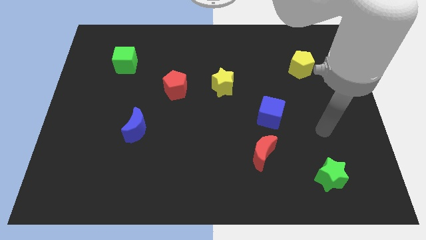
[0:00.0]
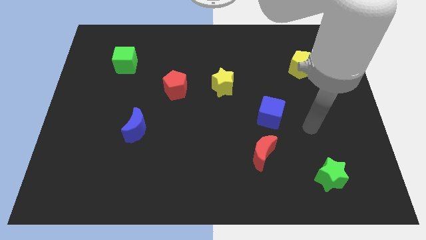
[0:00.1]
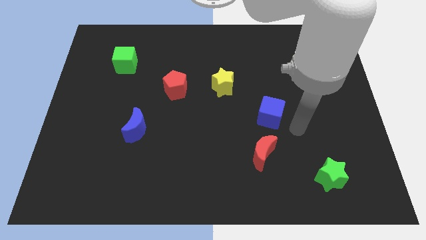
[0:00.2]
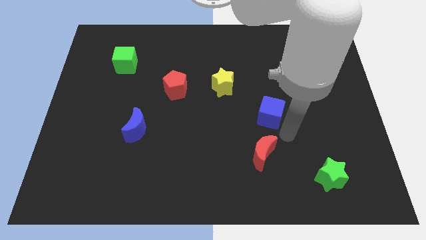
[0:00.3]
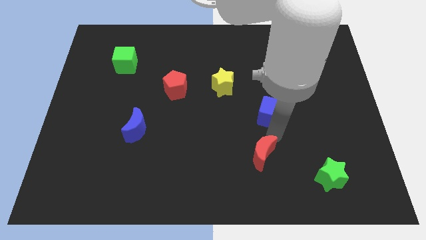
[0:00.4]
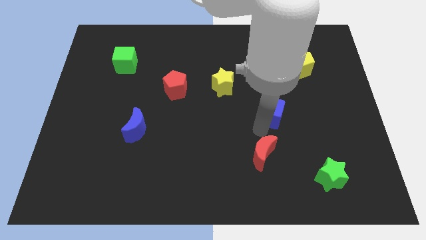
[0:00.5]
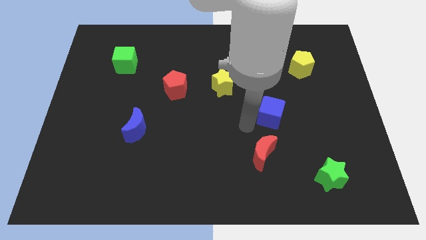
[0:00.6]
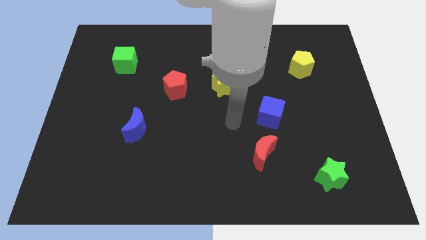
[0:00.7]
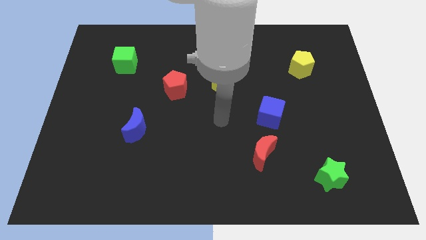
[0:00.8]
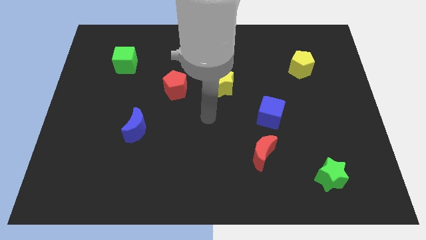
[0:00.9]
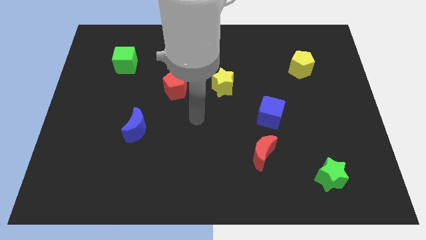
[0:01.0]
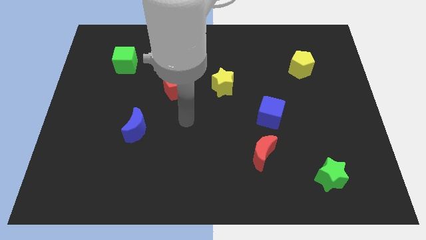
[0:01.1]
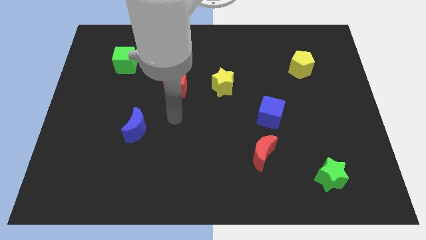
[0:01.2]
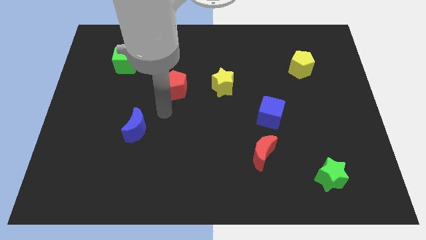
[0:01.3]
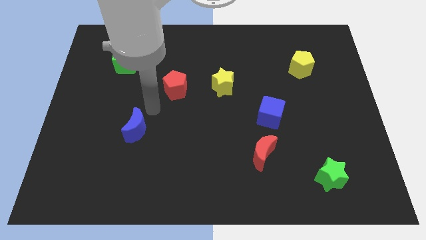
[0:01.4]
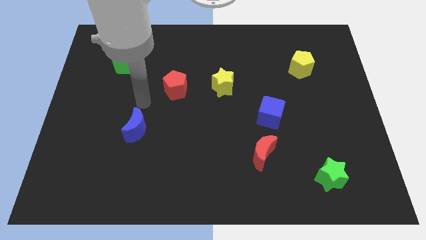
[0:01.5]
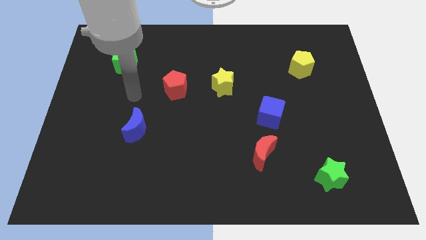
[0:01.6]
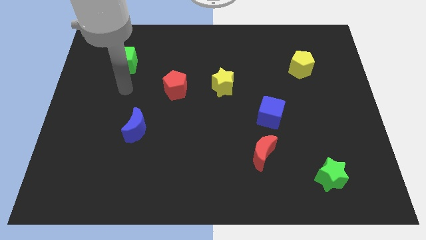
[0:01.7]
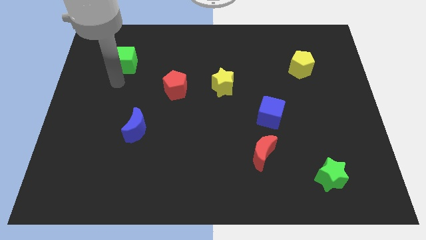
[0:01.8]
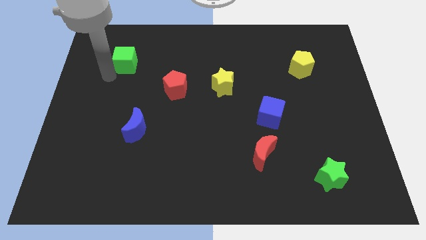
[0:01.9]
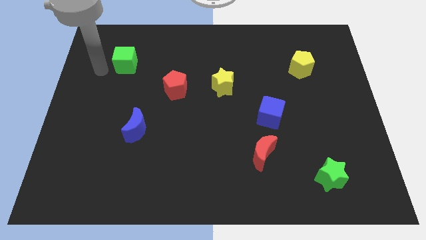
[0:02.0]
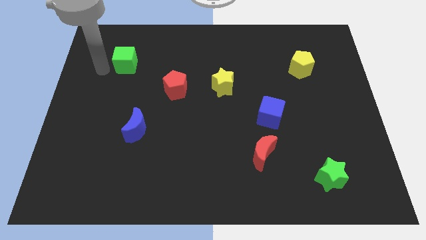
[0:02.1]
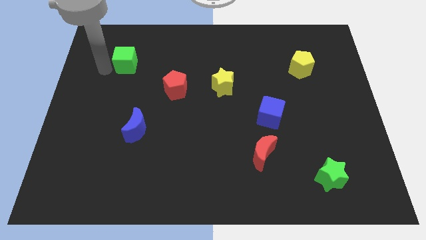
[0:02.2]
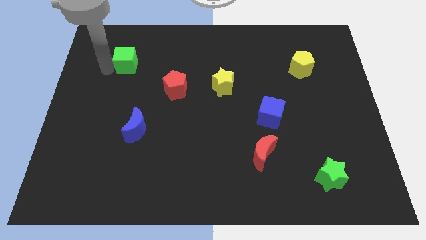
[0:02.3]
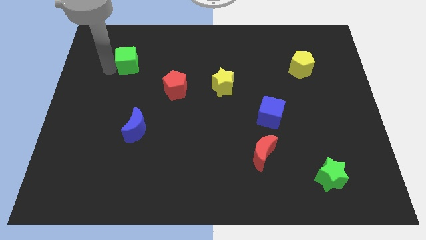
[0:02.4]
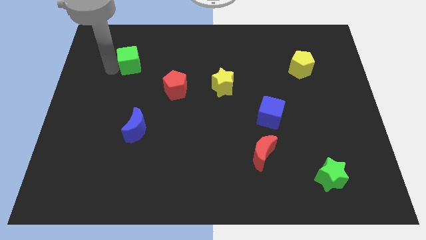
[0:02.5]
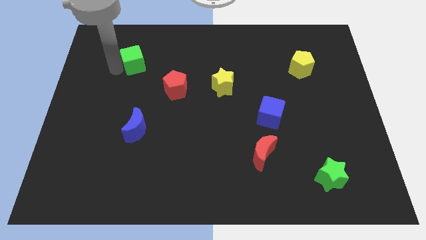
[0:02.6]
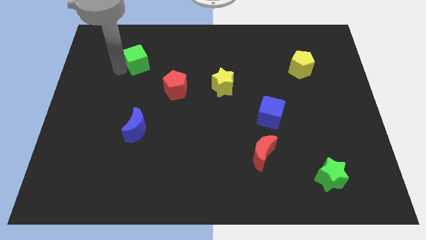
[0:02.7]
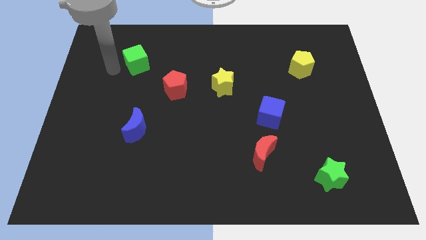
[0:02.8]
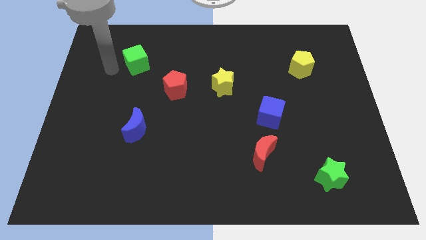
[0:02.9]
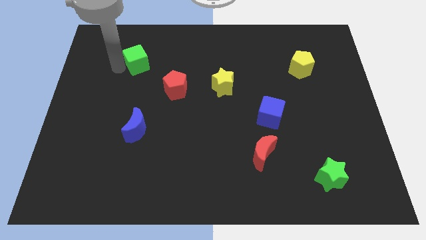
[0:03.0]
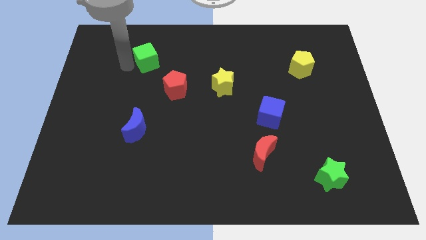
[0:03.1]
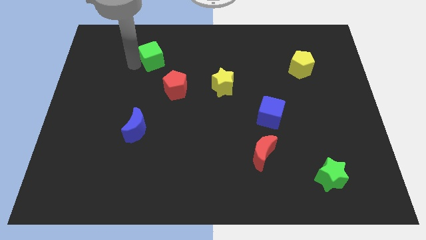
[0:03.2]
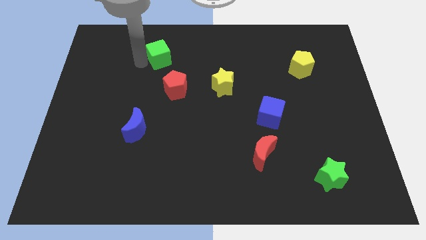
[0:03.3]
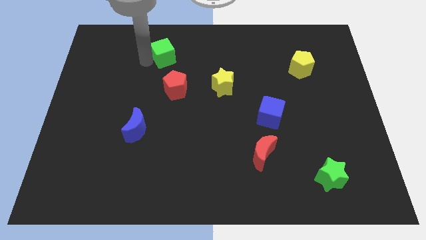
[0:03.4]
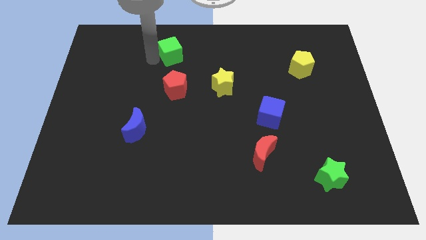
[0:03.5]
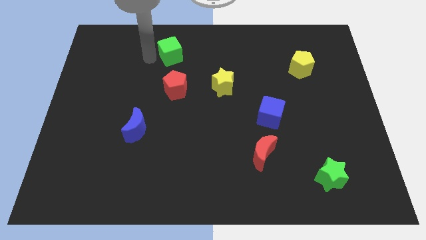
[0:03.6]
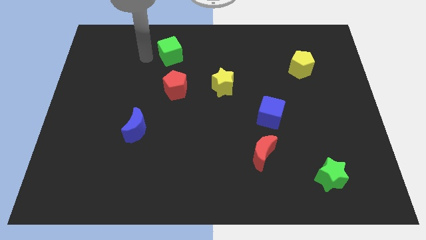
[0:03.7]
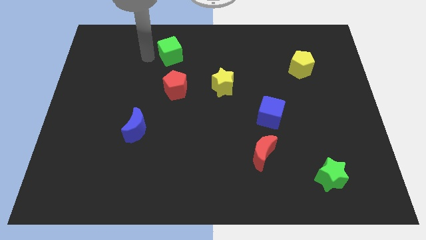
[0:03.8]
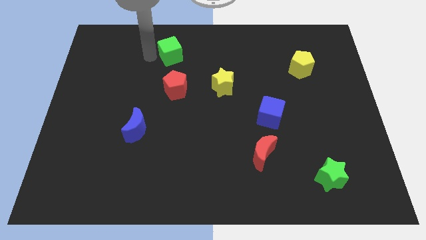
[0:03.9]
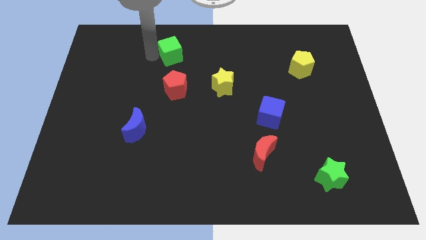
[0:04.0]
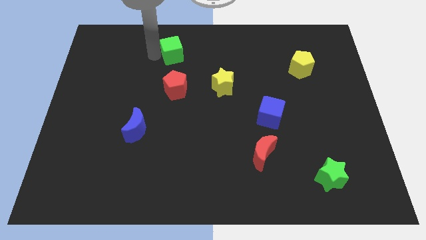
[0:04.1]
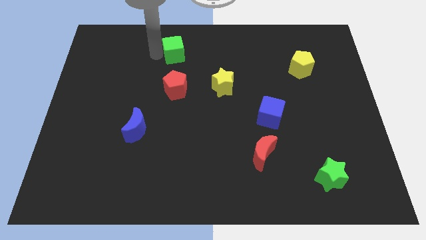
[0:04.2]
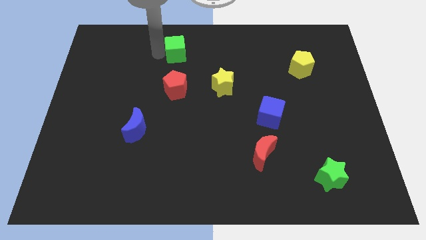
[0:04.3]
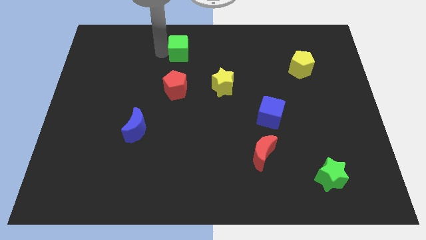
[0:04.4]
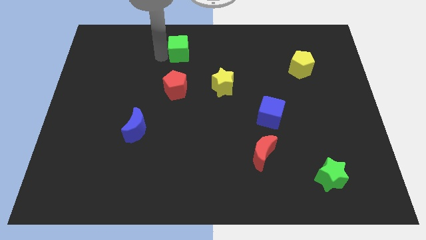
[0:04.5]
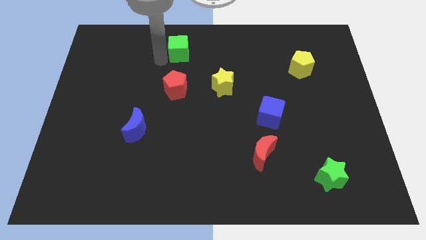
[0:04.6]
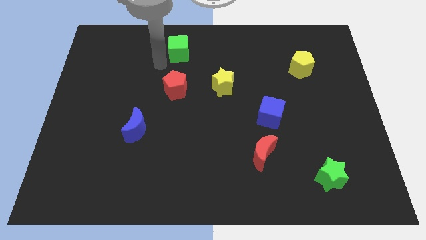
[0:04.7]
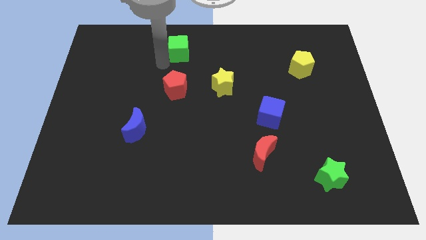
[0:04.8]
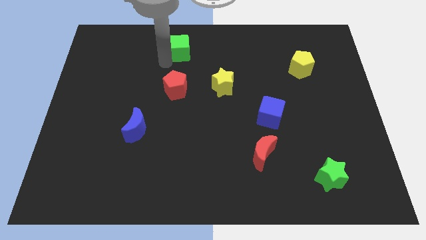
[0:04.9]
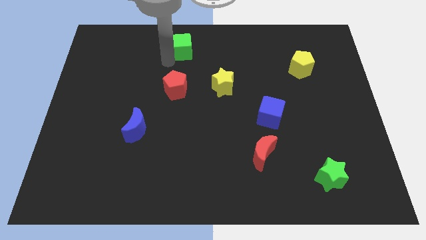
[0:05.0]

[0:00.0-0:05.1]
push the green cube to the top

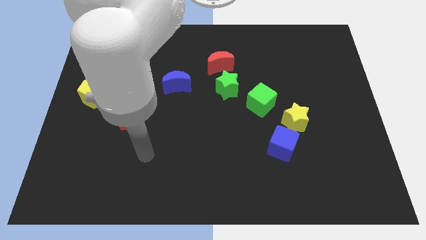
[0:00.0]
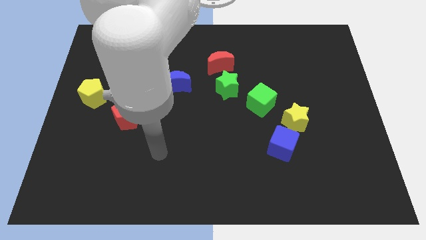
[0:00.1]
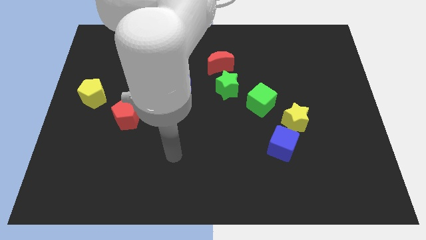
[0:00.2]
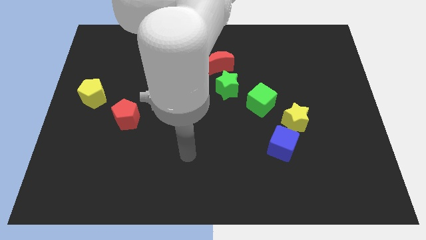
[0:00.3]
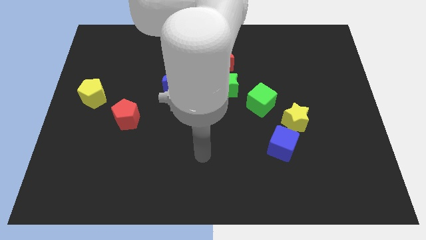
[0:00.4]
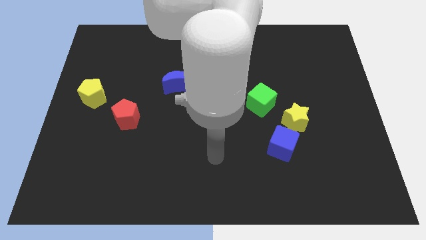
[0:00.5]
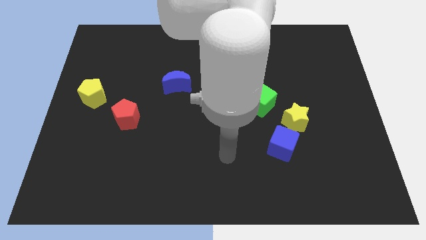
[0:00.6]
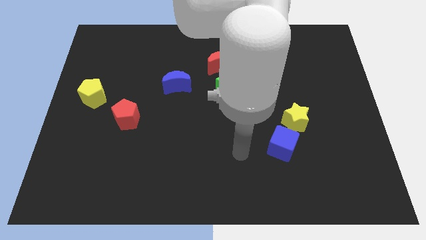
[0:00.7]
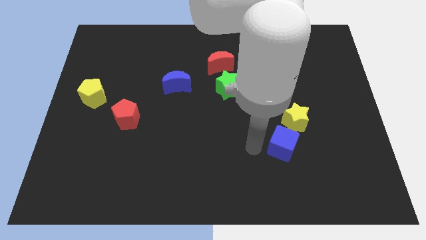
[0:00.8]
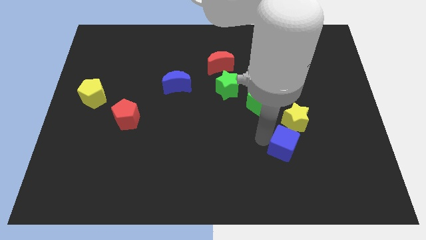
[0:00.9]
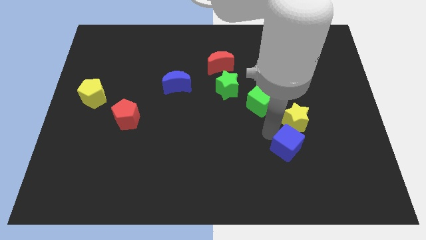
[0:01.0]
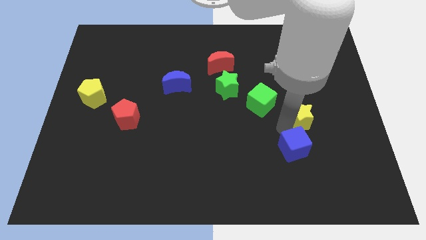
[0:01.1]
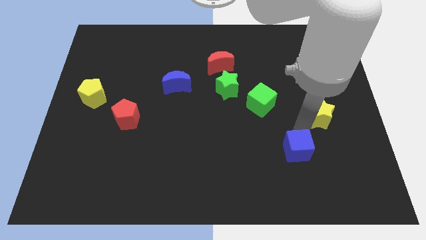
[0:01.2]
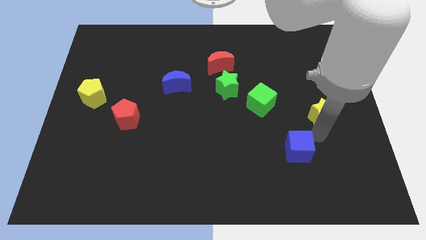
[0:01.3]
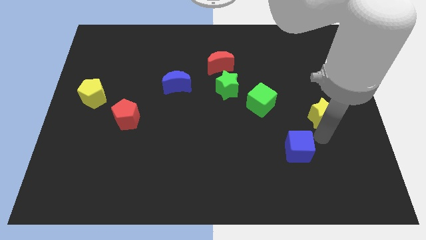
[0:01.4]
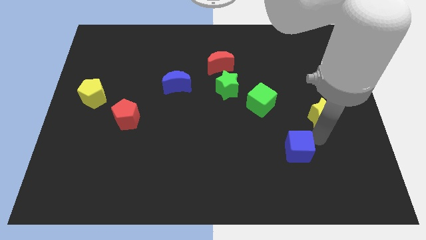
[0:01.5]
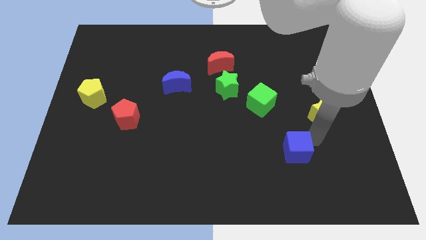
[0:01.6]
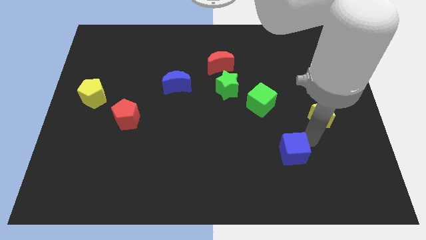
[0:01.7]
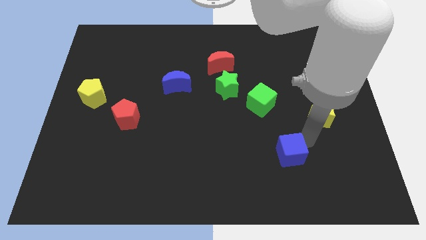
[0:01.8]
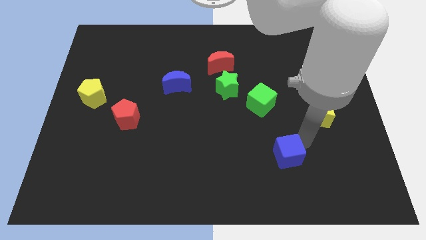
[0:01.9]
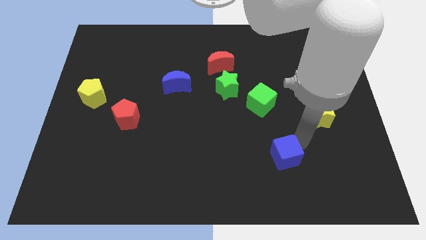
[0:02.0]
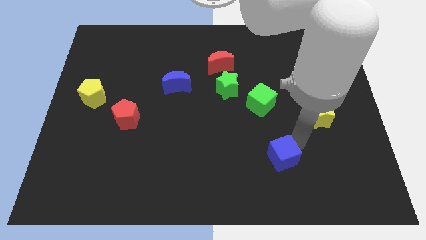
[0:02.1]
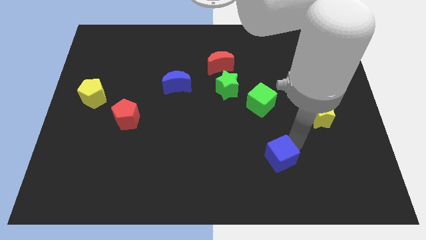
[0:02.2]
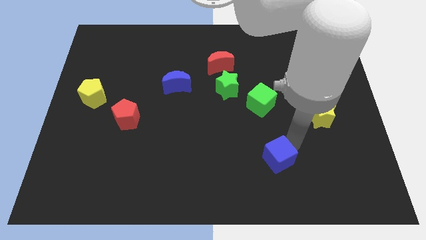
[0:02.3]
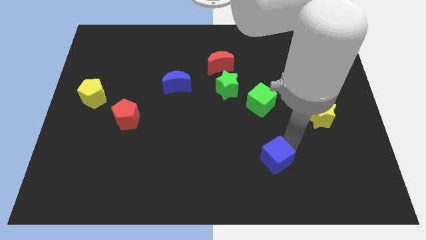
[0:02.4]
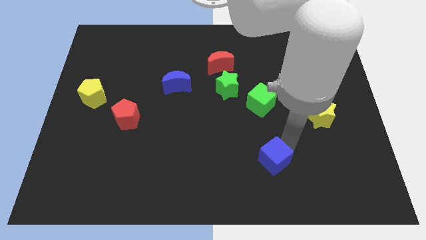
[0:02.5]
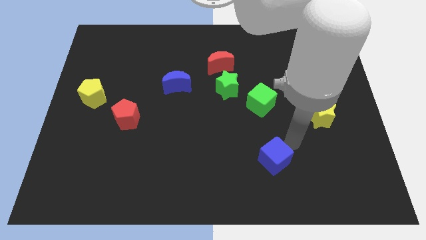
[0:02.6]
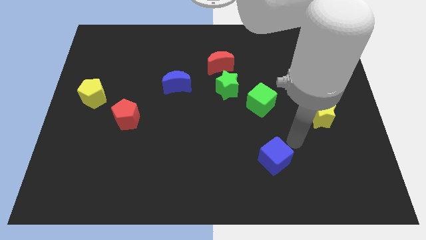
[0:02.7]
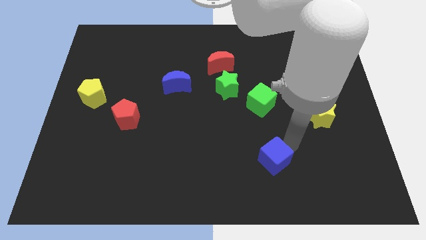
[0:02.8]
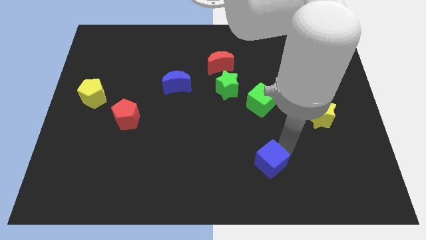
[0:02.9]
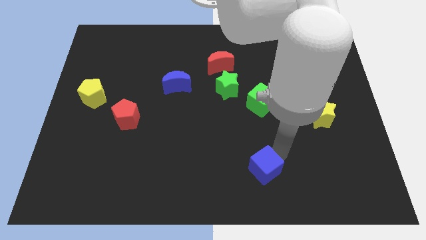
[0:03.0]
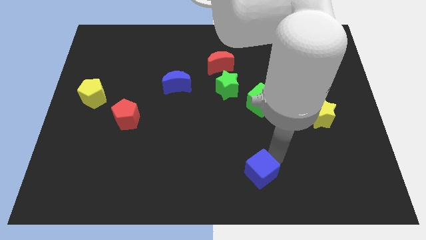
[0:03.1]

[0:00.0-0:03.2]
push the blue cube to the bottom
